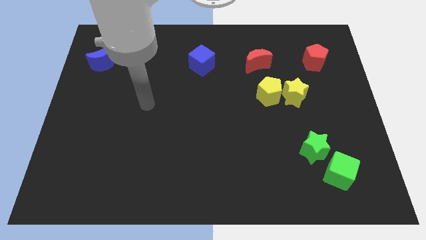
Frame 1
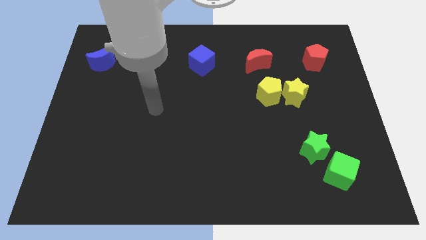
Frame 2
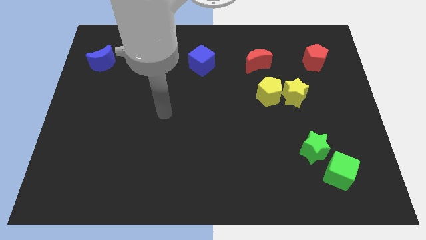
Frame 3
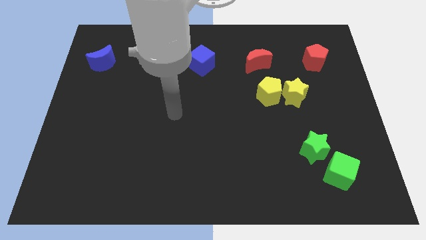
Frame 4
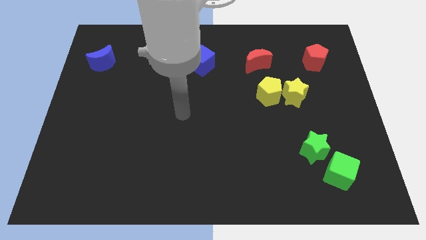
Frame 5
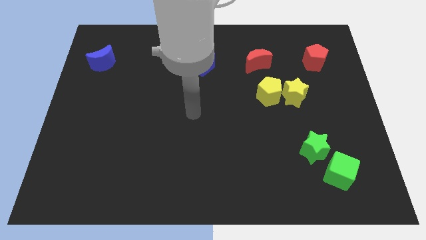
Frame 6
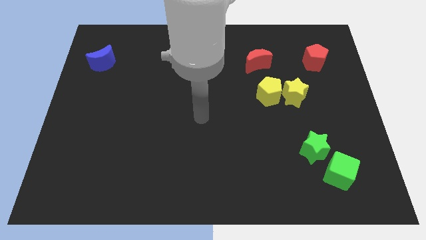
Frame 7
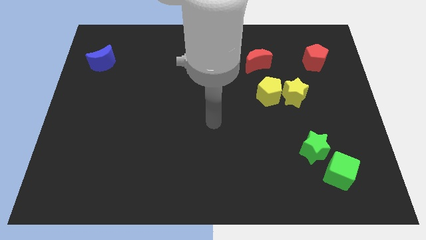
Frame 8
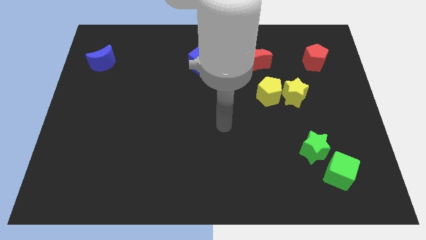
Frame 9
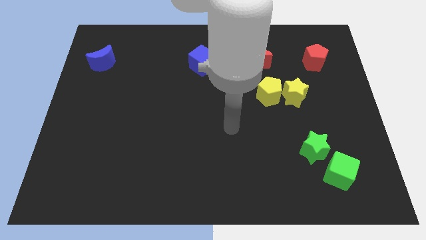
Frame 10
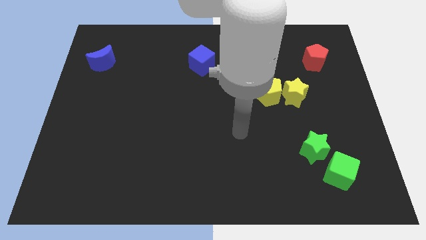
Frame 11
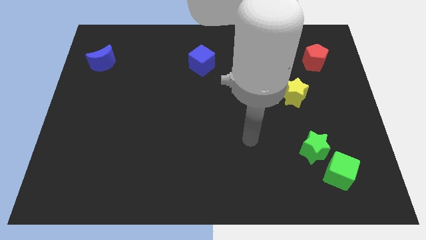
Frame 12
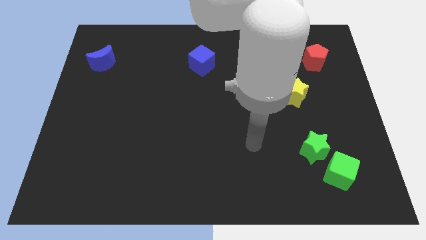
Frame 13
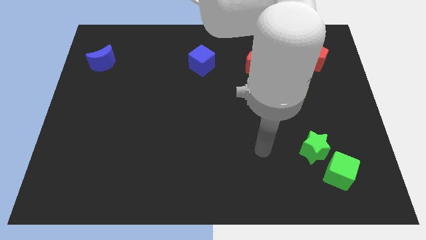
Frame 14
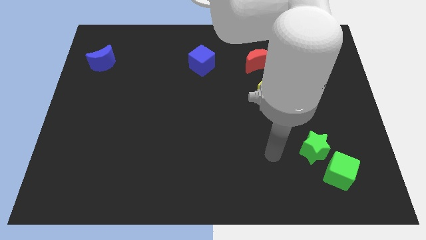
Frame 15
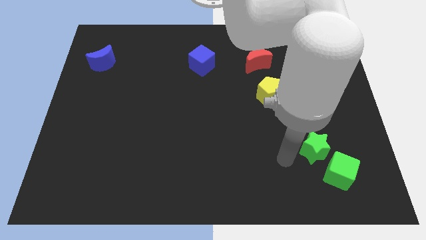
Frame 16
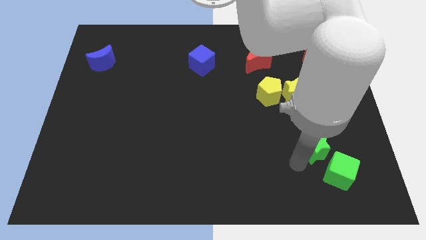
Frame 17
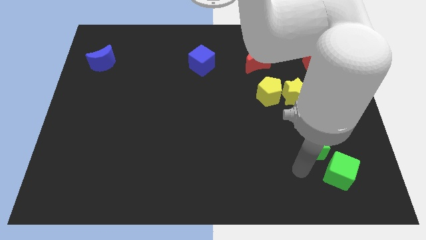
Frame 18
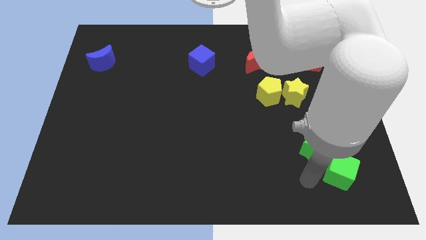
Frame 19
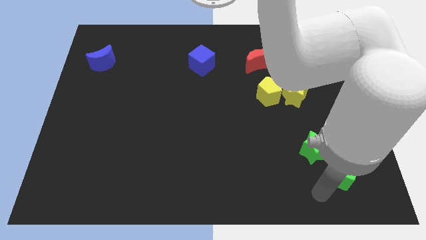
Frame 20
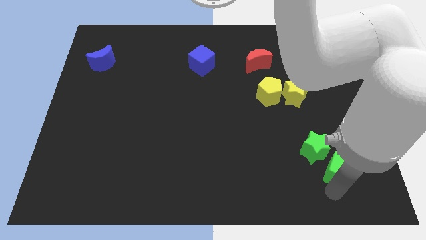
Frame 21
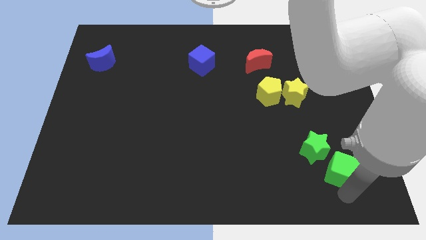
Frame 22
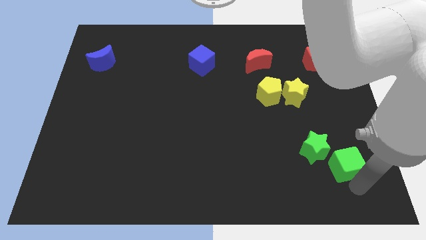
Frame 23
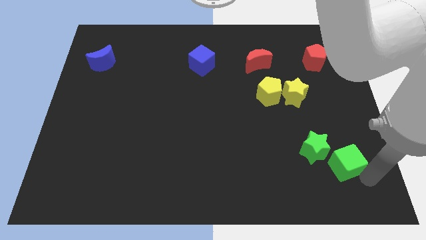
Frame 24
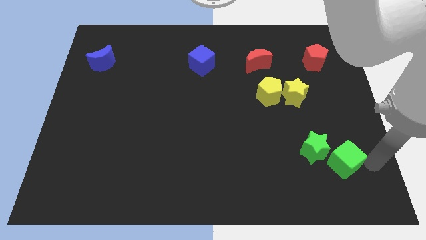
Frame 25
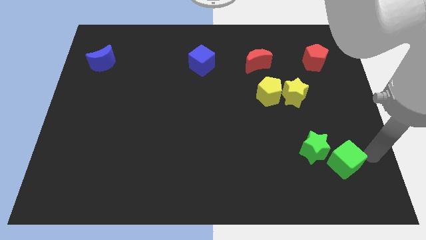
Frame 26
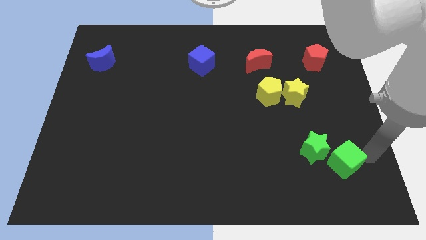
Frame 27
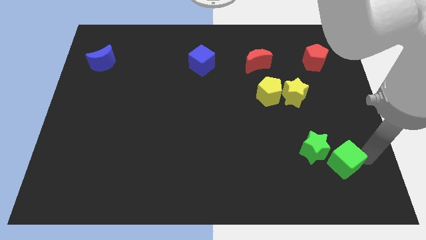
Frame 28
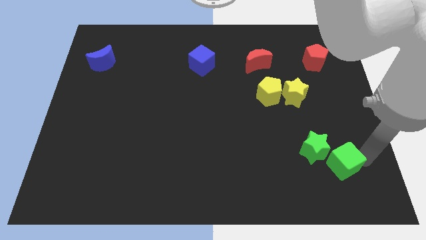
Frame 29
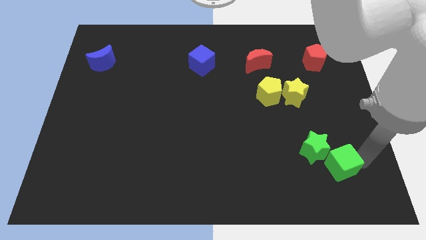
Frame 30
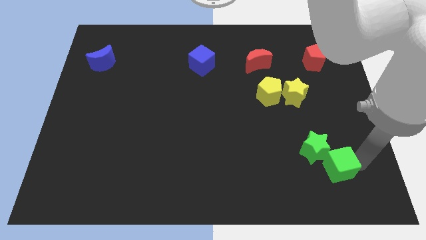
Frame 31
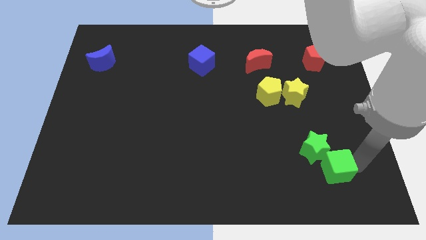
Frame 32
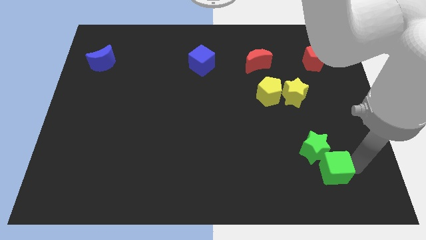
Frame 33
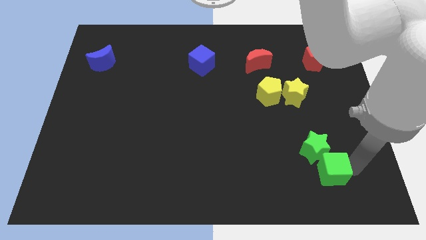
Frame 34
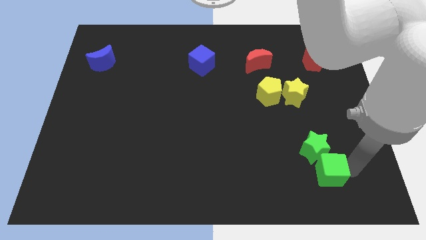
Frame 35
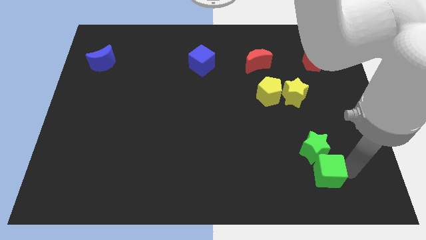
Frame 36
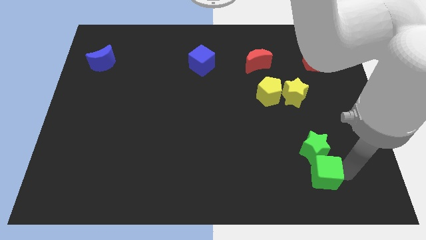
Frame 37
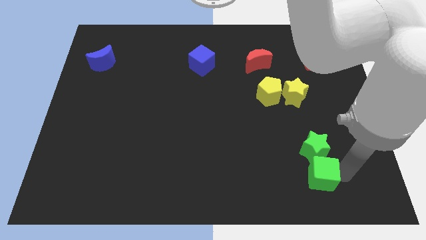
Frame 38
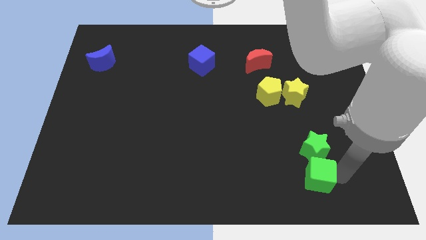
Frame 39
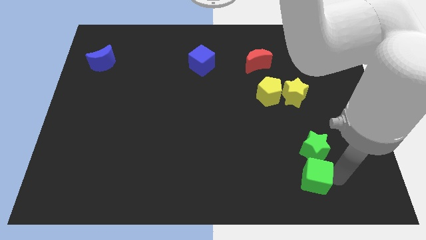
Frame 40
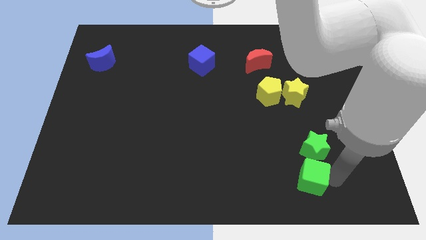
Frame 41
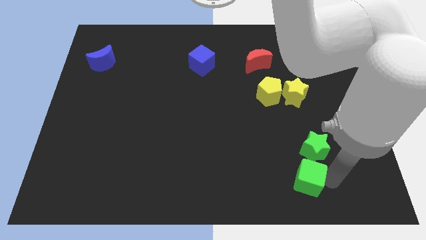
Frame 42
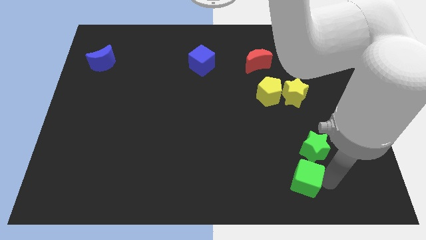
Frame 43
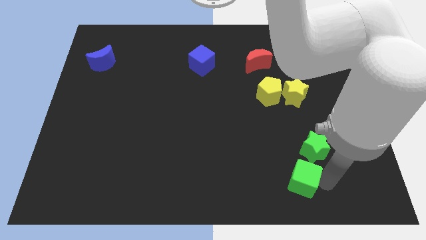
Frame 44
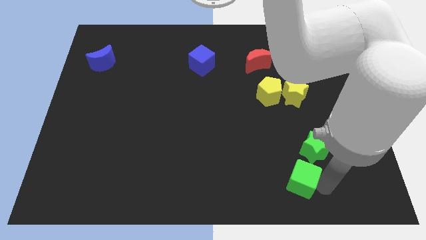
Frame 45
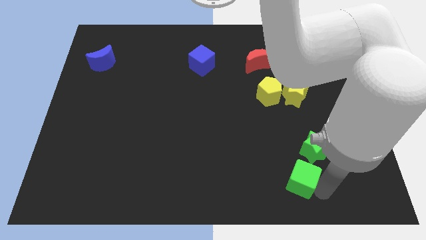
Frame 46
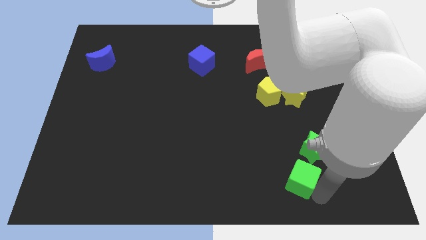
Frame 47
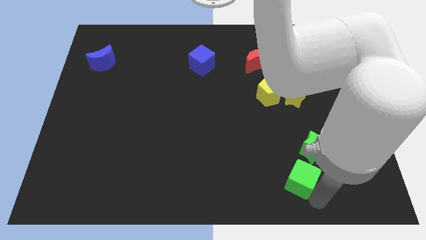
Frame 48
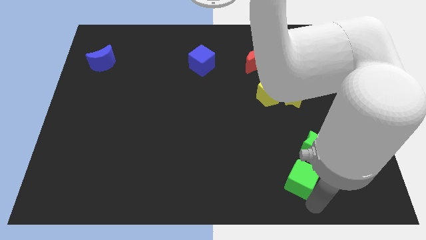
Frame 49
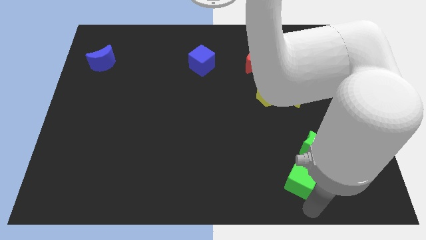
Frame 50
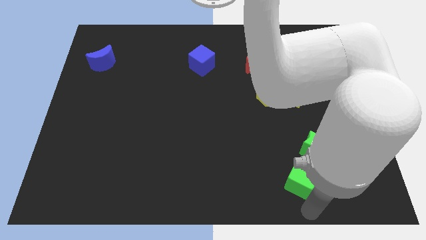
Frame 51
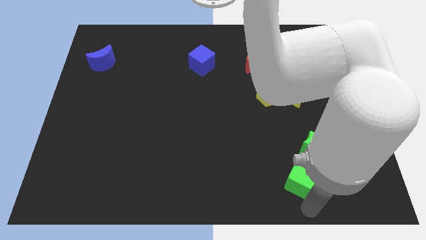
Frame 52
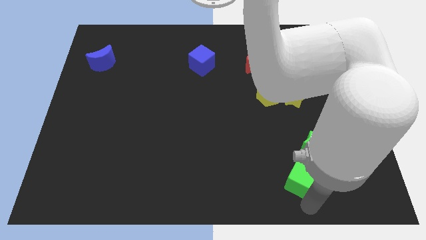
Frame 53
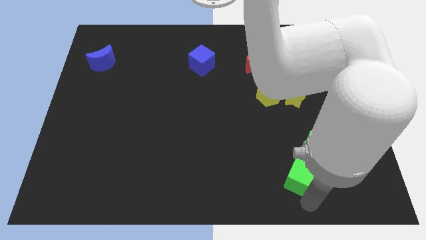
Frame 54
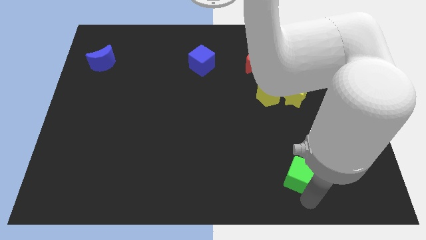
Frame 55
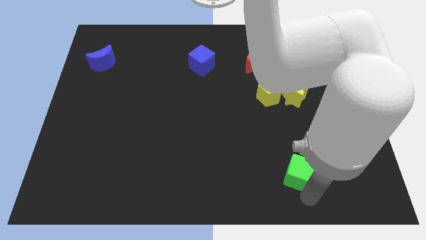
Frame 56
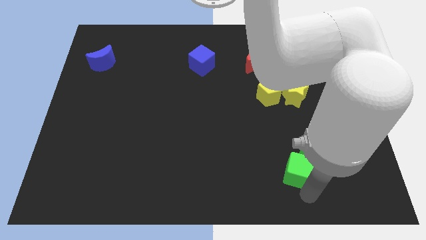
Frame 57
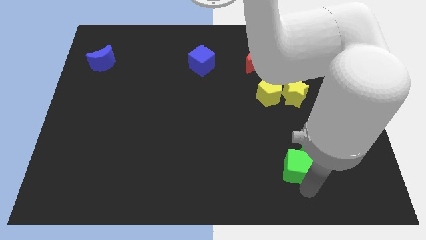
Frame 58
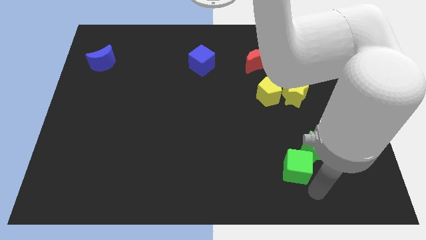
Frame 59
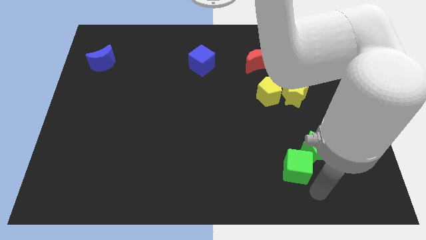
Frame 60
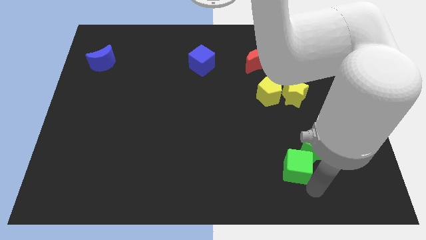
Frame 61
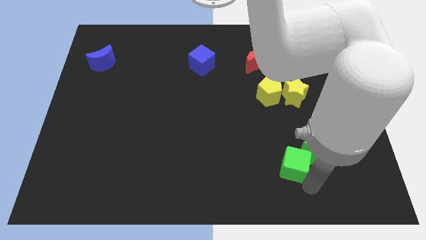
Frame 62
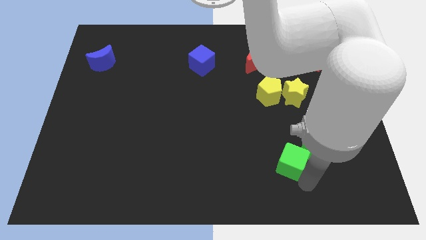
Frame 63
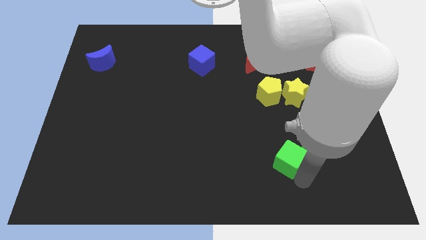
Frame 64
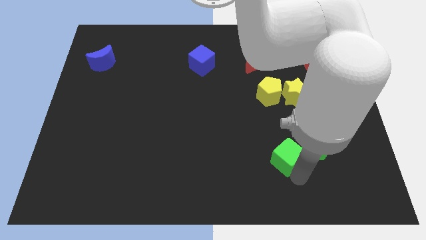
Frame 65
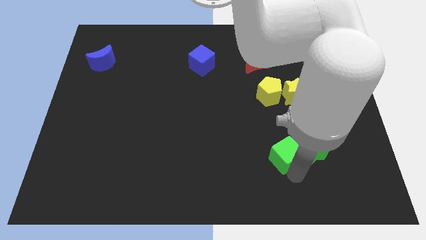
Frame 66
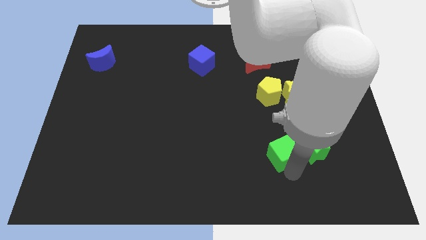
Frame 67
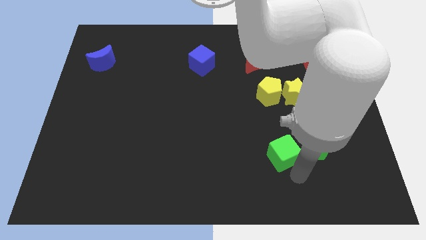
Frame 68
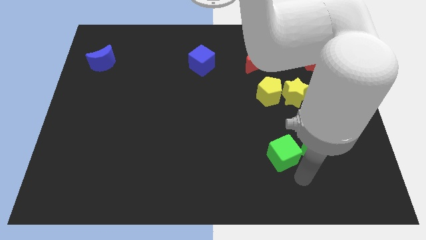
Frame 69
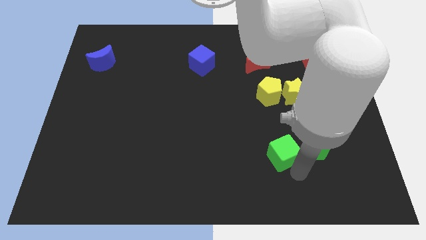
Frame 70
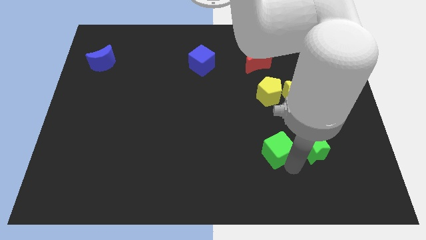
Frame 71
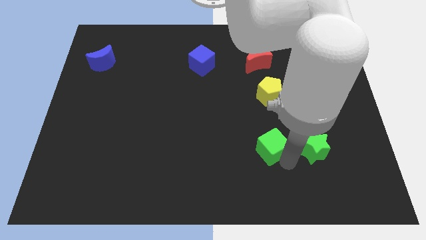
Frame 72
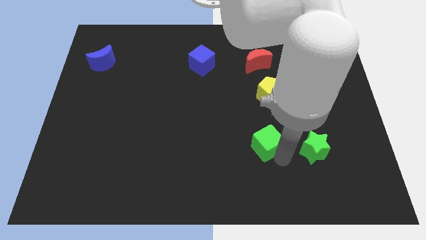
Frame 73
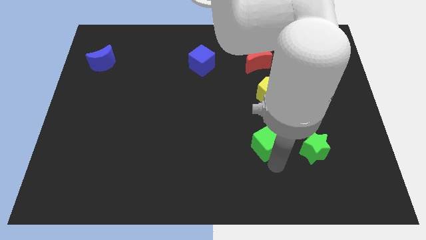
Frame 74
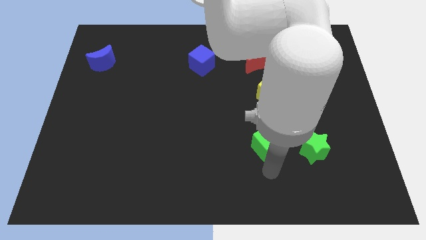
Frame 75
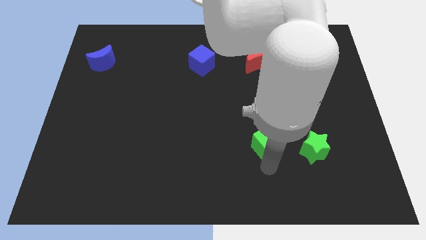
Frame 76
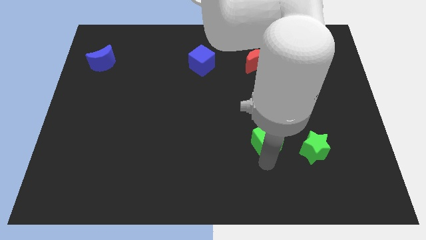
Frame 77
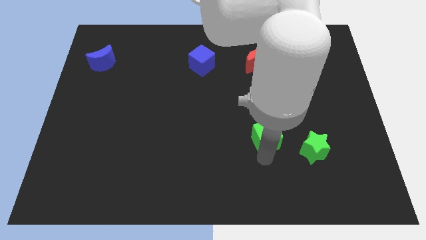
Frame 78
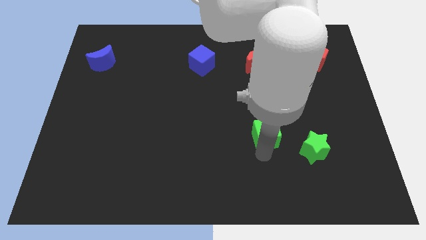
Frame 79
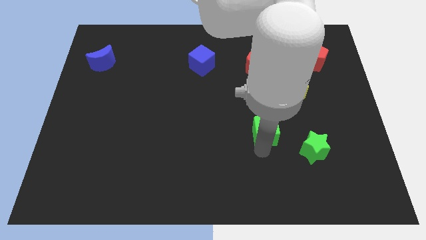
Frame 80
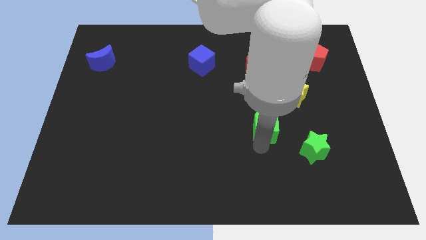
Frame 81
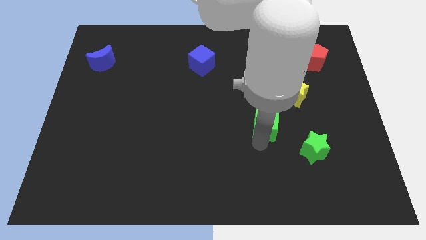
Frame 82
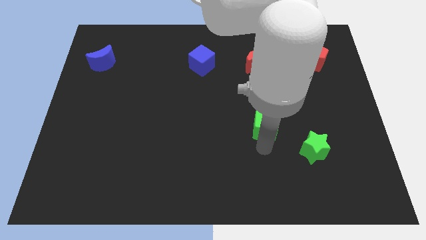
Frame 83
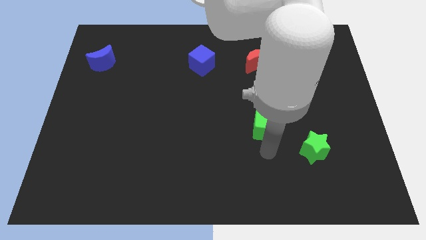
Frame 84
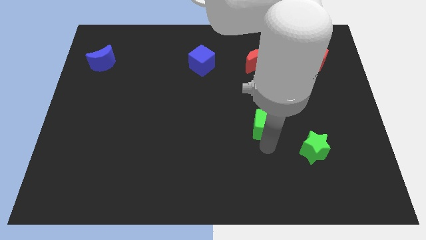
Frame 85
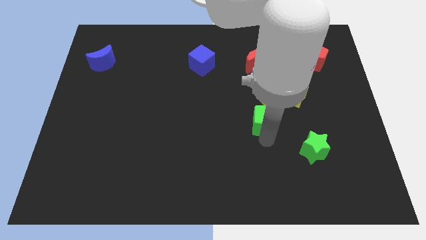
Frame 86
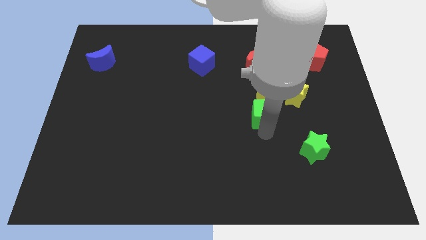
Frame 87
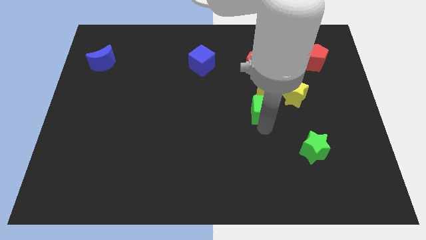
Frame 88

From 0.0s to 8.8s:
push the green cube next to the yellow pentagon
